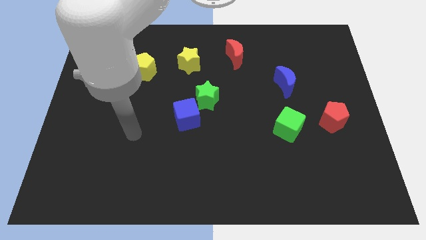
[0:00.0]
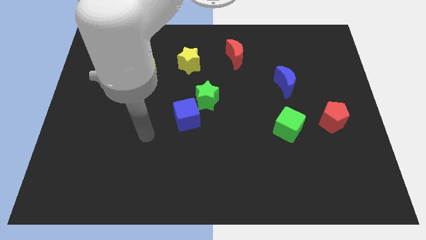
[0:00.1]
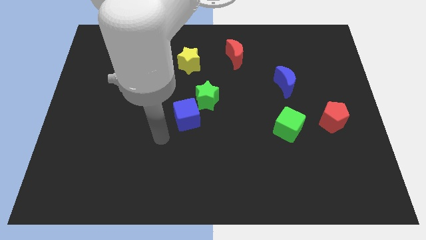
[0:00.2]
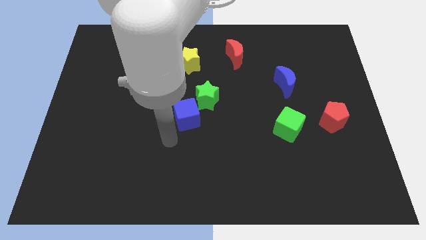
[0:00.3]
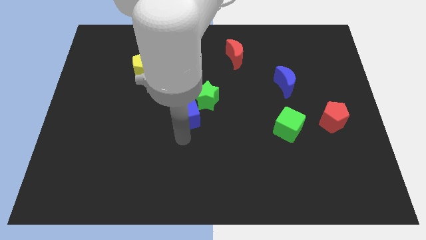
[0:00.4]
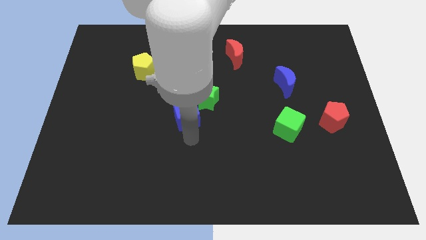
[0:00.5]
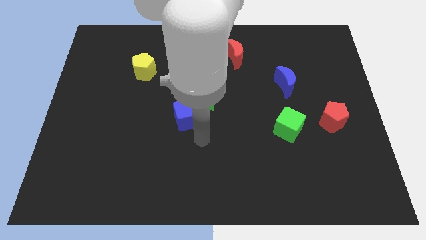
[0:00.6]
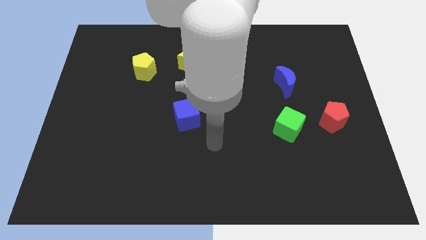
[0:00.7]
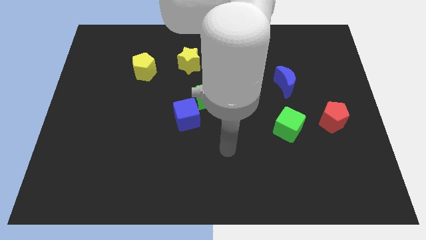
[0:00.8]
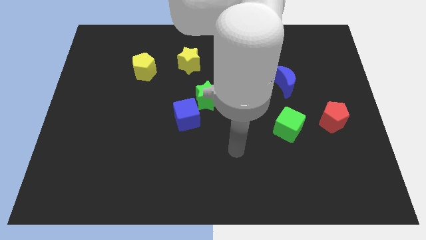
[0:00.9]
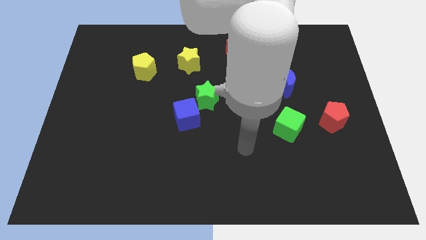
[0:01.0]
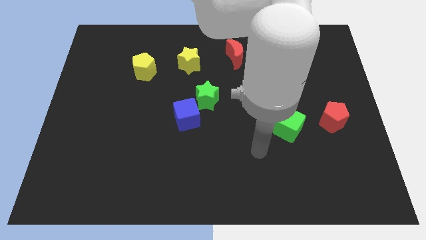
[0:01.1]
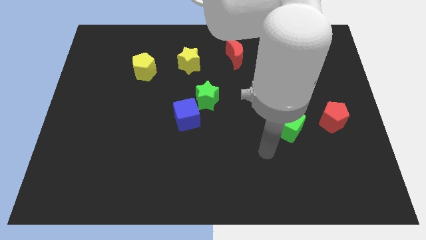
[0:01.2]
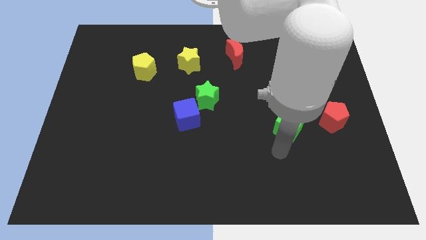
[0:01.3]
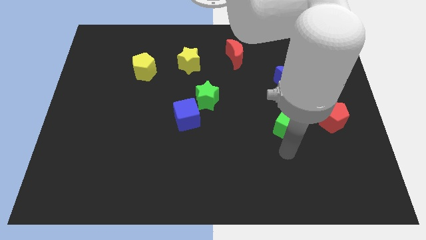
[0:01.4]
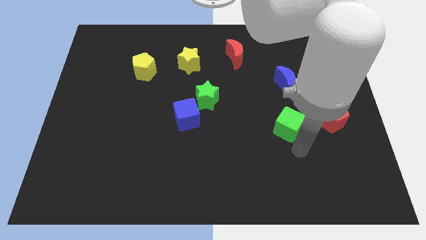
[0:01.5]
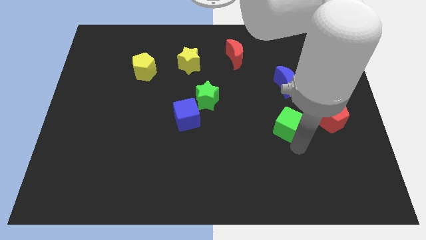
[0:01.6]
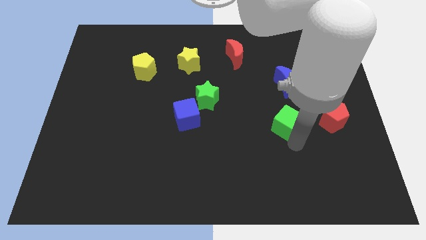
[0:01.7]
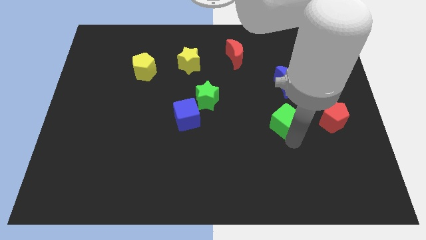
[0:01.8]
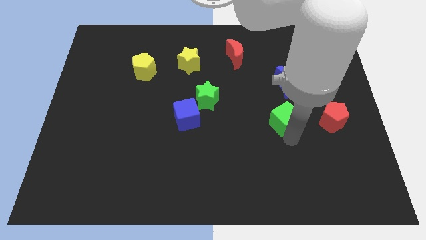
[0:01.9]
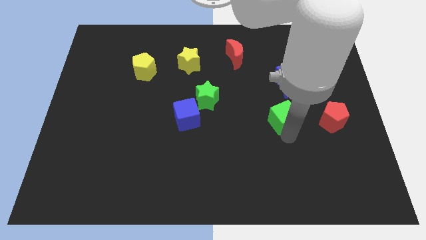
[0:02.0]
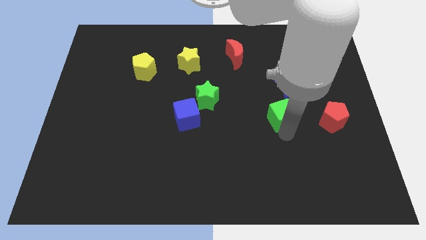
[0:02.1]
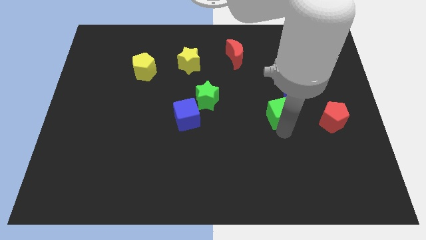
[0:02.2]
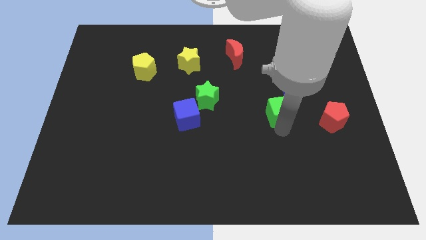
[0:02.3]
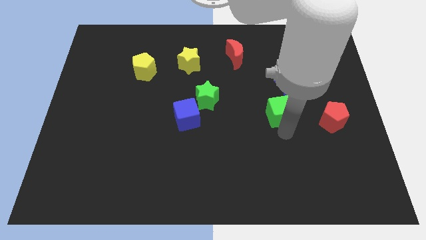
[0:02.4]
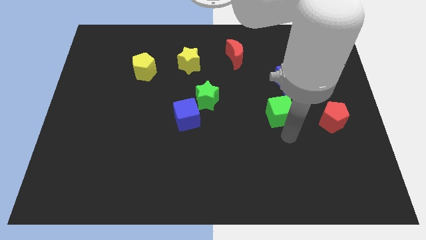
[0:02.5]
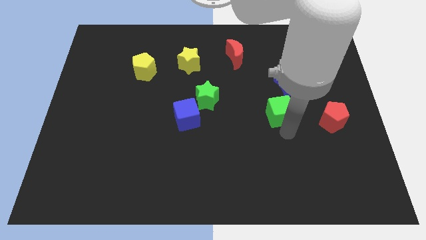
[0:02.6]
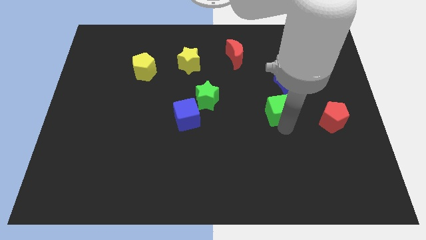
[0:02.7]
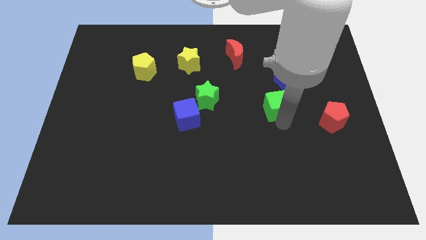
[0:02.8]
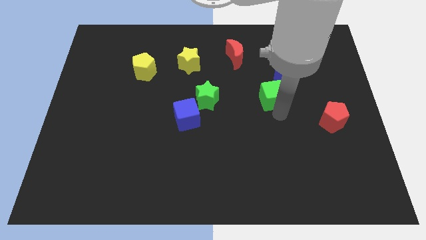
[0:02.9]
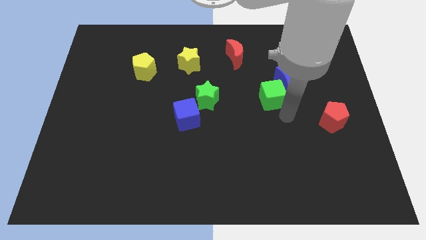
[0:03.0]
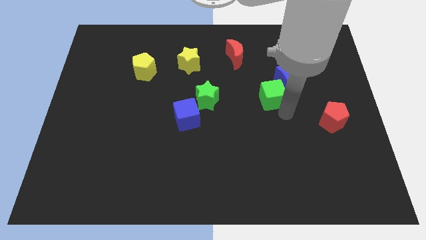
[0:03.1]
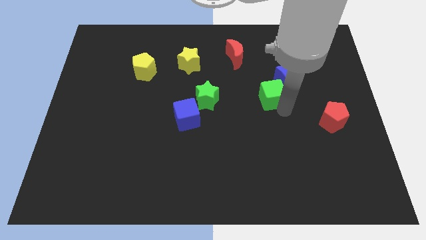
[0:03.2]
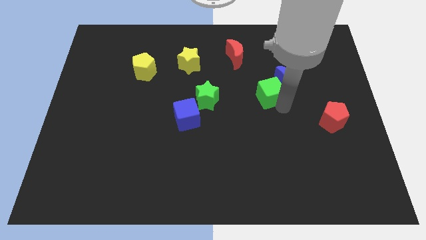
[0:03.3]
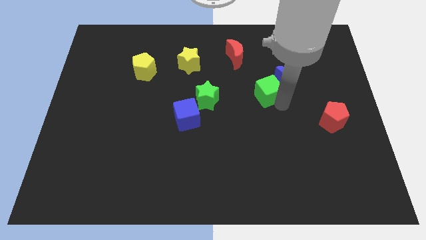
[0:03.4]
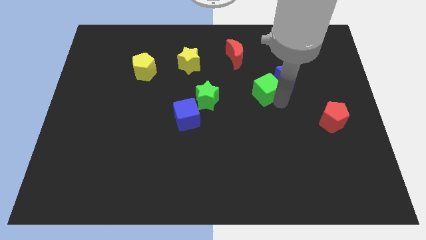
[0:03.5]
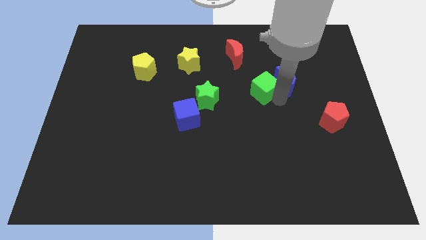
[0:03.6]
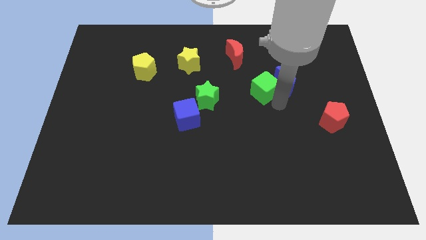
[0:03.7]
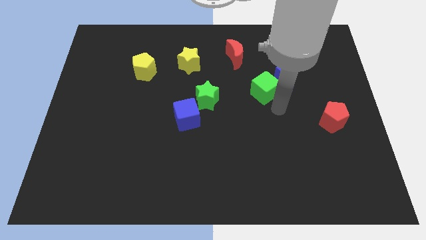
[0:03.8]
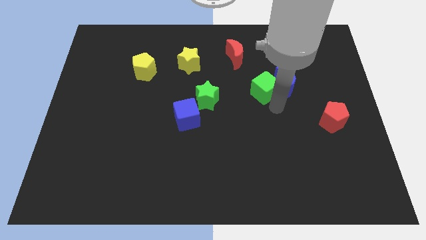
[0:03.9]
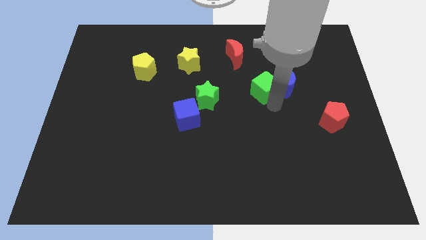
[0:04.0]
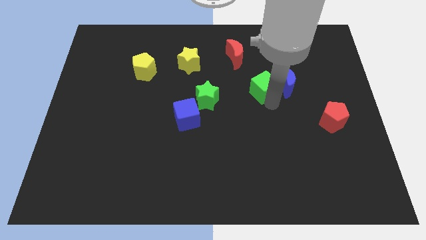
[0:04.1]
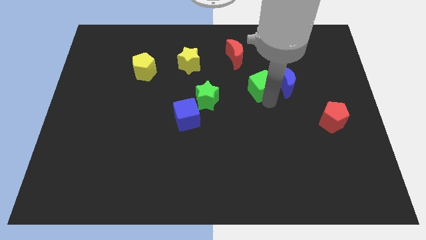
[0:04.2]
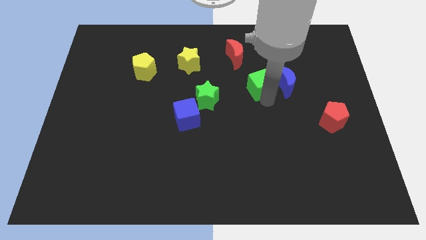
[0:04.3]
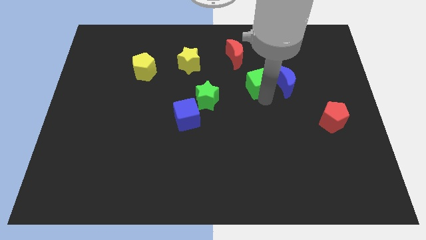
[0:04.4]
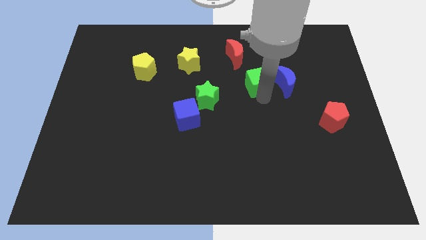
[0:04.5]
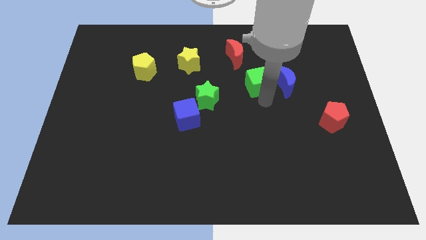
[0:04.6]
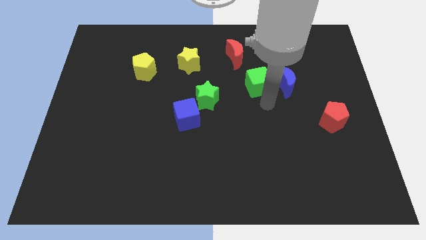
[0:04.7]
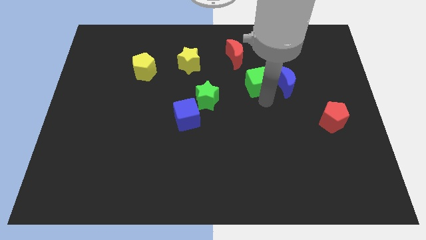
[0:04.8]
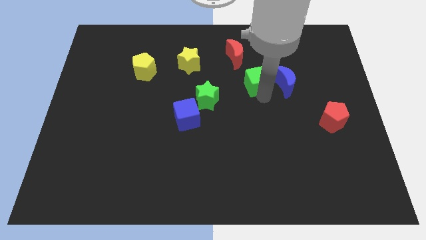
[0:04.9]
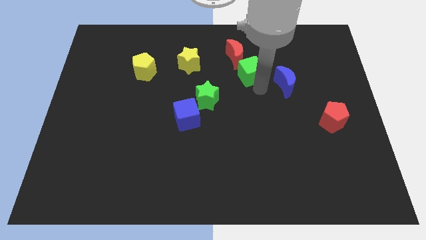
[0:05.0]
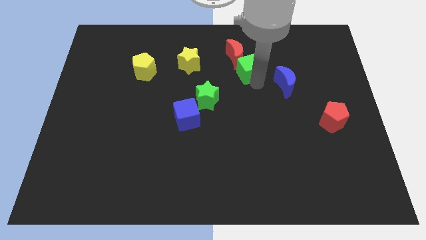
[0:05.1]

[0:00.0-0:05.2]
push the green cube towards the red moon

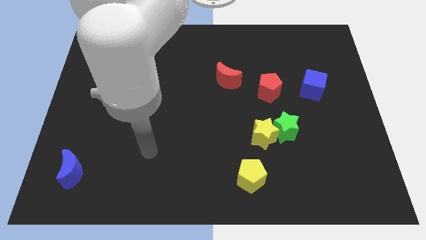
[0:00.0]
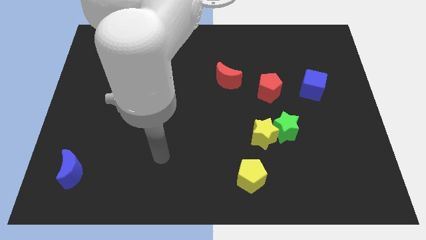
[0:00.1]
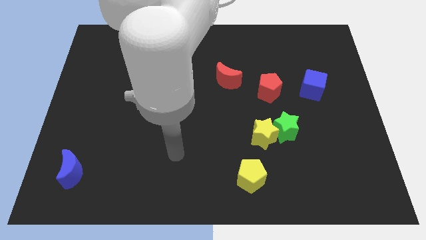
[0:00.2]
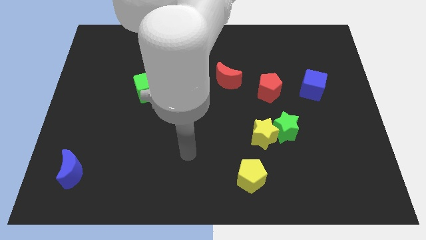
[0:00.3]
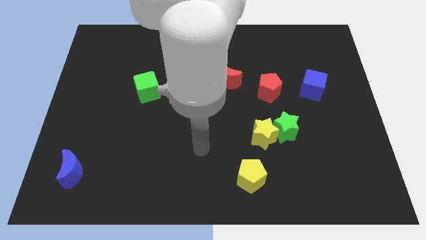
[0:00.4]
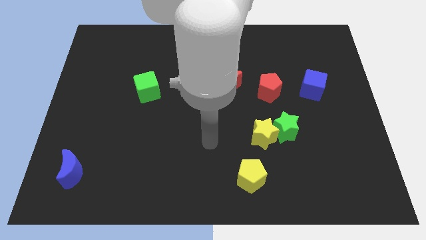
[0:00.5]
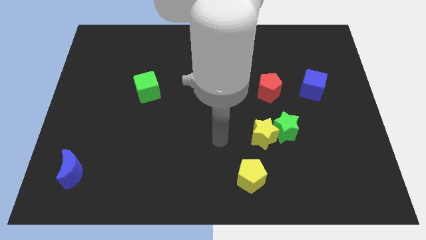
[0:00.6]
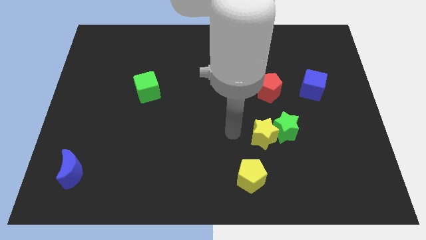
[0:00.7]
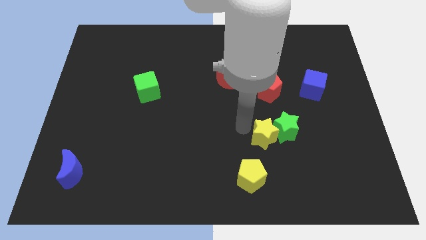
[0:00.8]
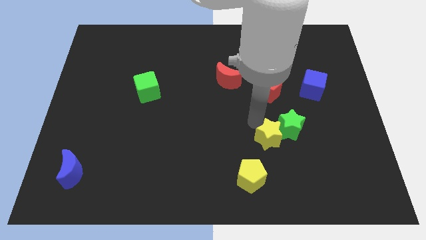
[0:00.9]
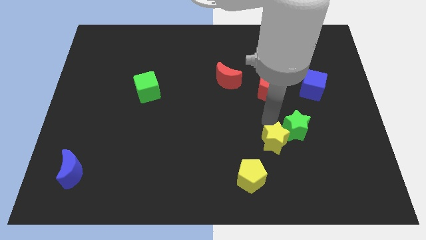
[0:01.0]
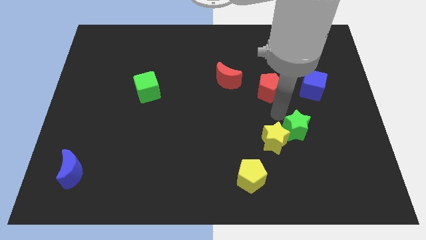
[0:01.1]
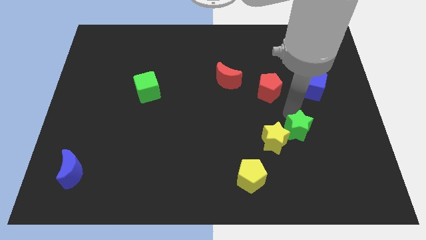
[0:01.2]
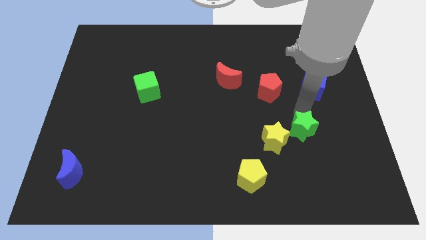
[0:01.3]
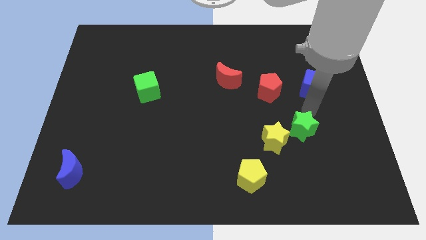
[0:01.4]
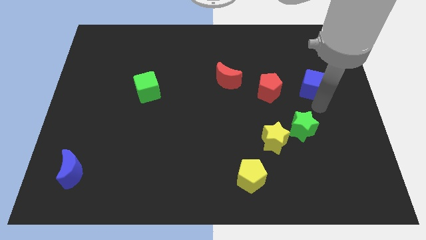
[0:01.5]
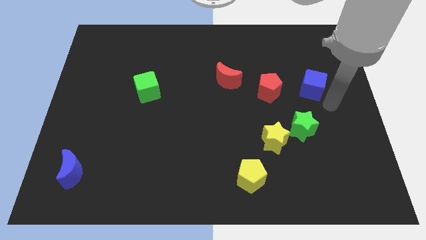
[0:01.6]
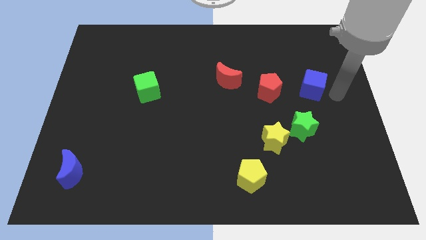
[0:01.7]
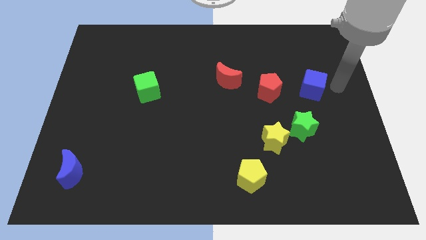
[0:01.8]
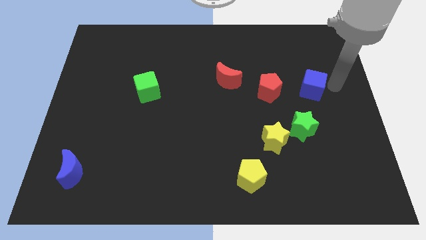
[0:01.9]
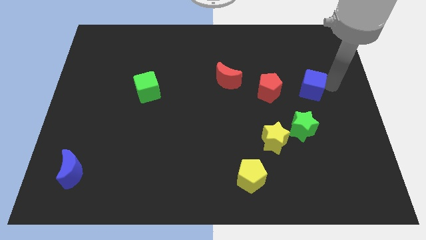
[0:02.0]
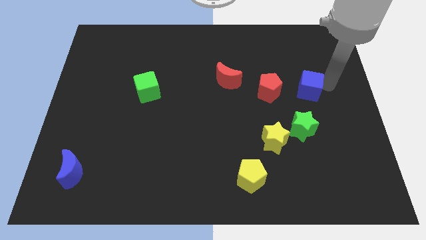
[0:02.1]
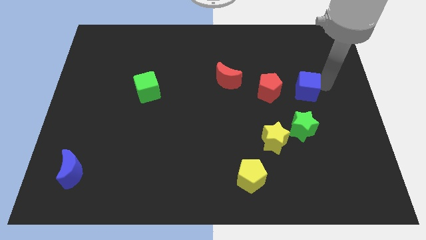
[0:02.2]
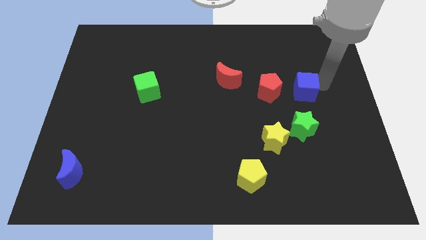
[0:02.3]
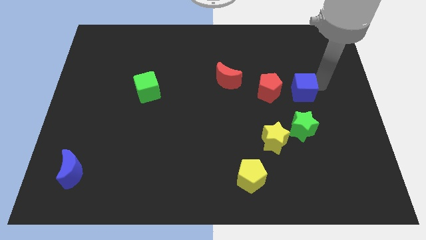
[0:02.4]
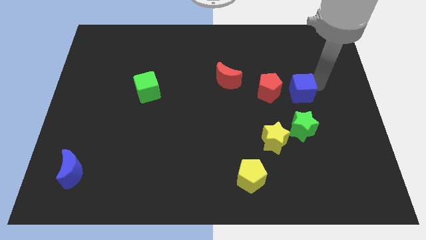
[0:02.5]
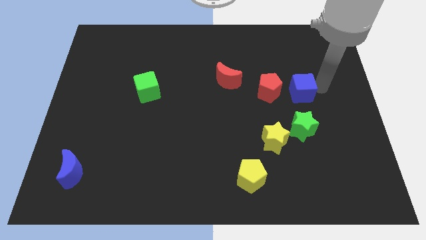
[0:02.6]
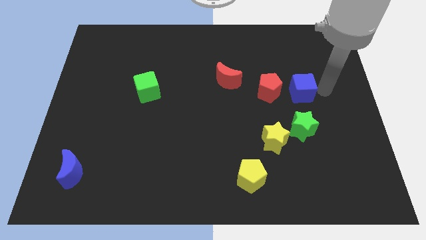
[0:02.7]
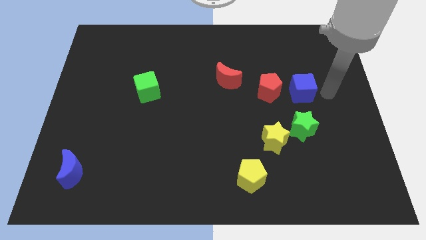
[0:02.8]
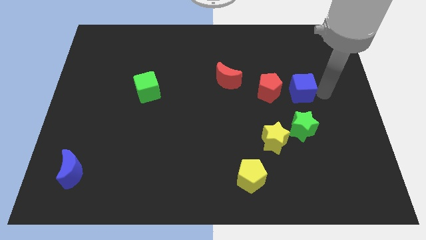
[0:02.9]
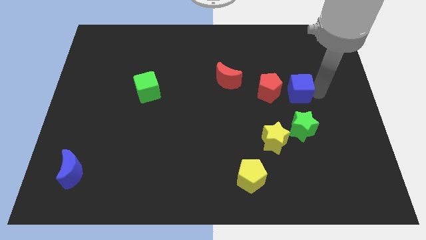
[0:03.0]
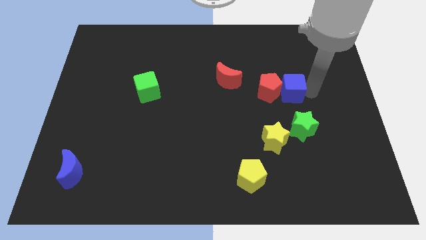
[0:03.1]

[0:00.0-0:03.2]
move the blue cube next to the red pentagon
